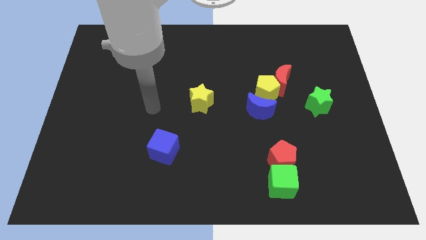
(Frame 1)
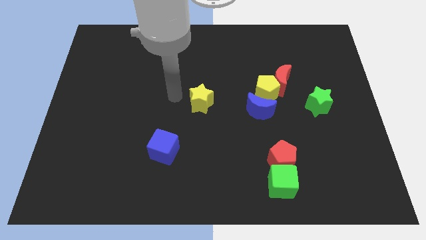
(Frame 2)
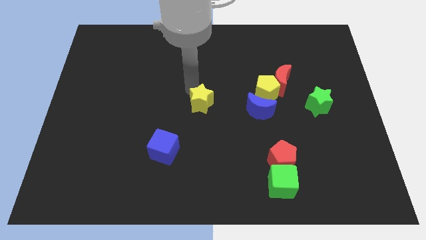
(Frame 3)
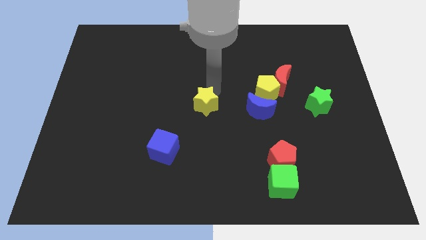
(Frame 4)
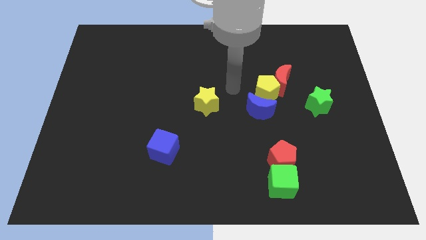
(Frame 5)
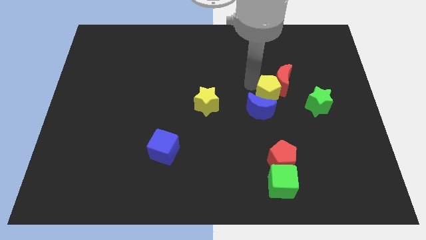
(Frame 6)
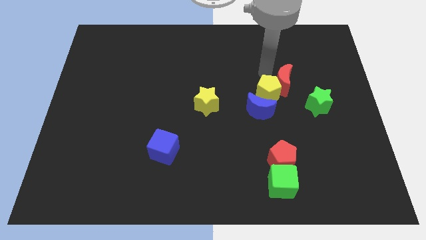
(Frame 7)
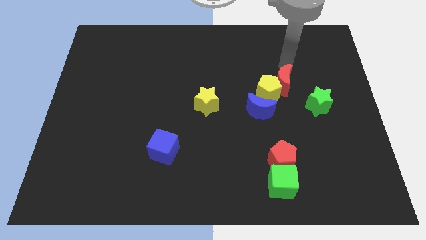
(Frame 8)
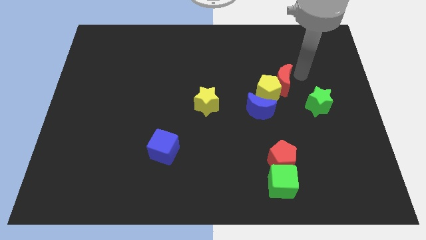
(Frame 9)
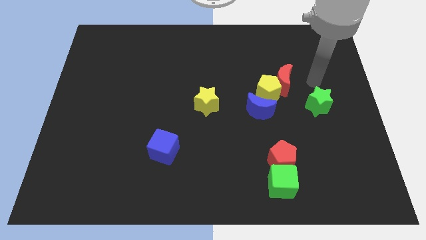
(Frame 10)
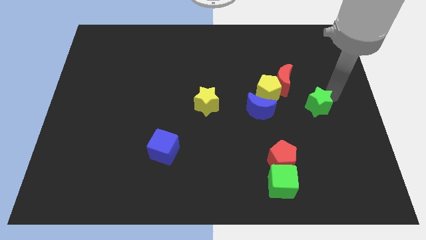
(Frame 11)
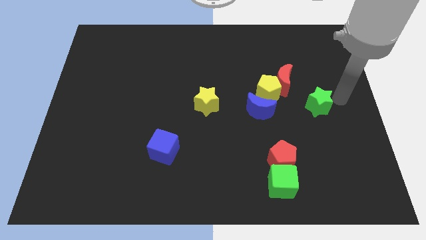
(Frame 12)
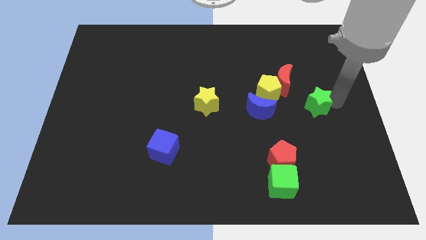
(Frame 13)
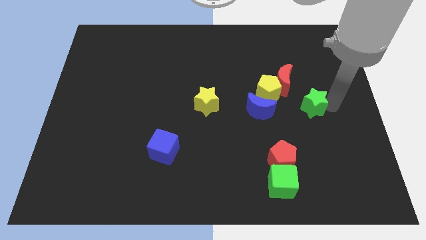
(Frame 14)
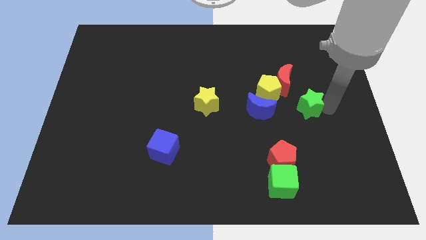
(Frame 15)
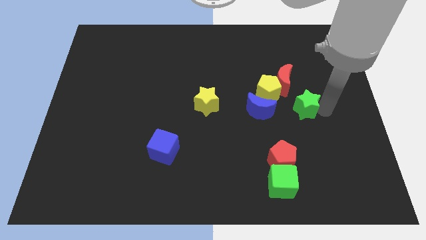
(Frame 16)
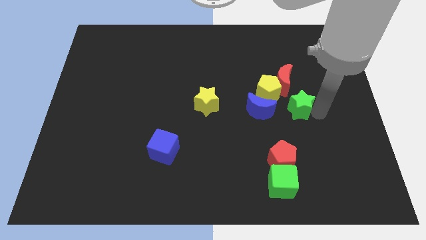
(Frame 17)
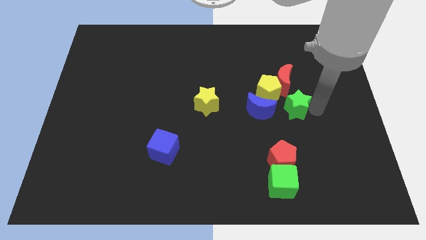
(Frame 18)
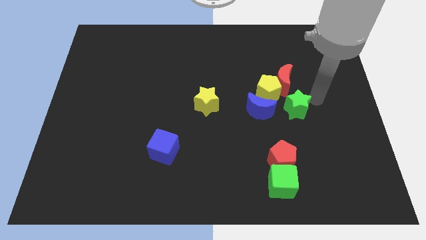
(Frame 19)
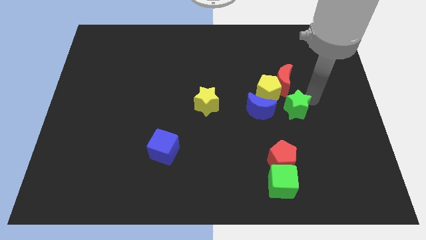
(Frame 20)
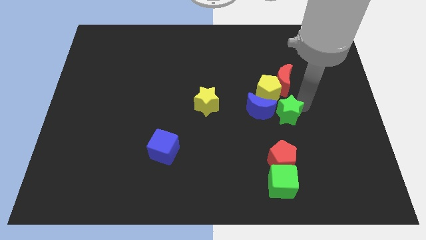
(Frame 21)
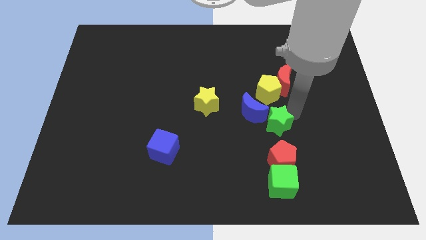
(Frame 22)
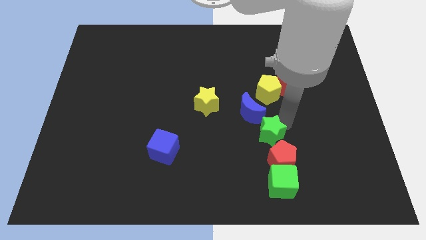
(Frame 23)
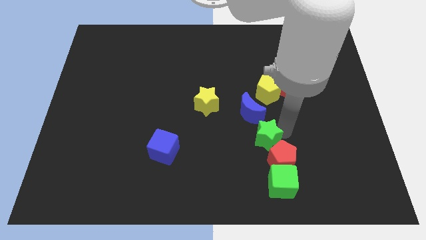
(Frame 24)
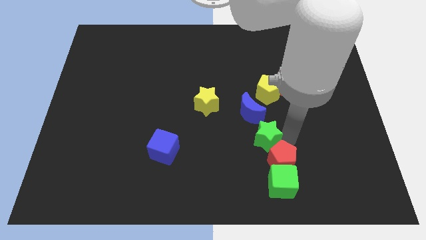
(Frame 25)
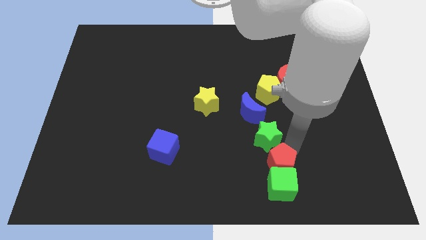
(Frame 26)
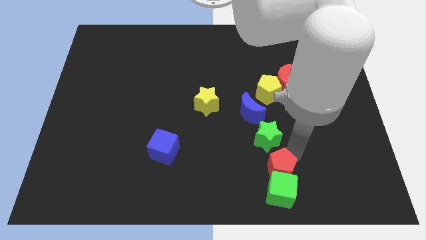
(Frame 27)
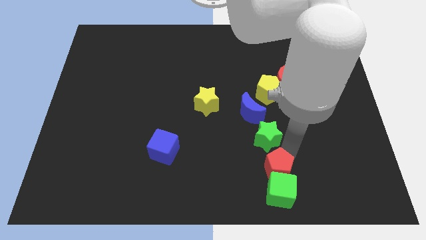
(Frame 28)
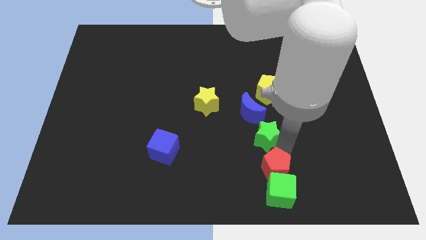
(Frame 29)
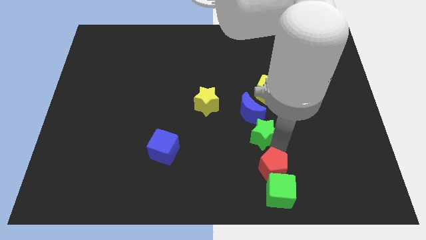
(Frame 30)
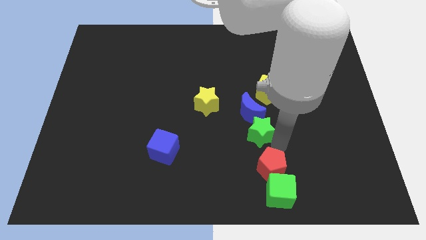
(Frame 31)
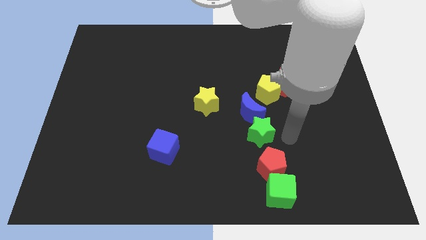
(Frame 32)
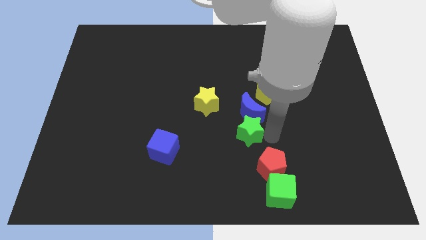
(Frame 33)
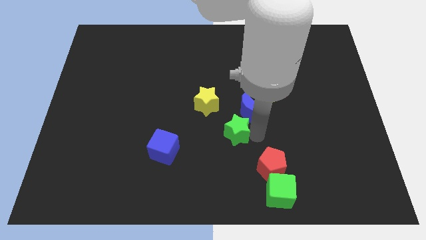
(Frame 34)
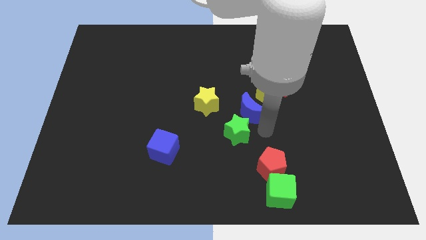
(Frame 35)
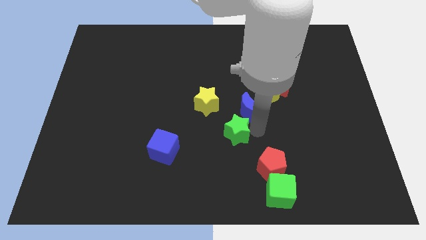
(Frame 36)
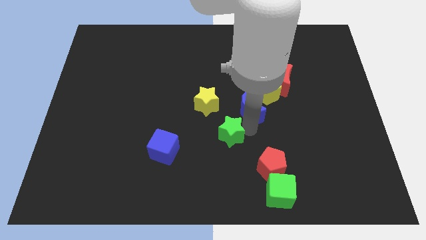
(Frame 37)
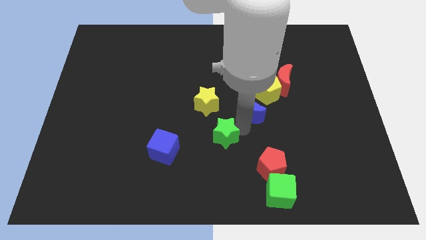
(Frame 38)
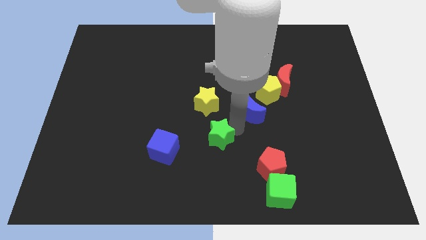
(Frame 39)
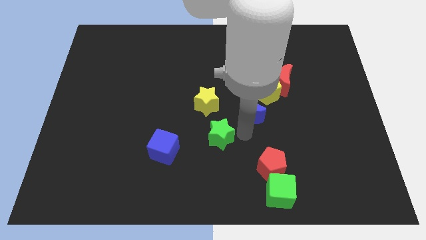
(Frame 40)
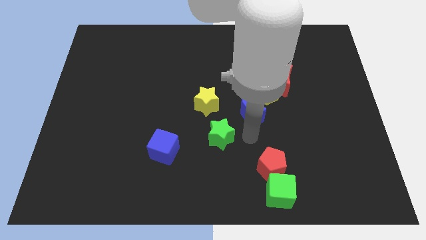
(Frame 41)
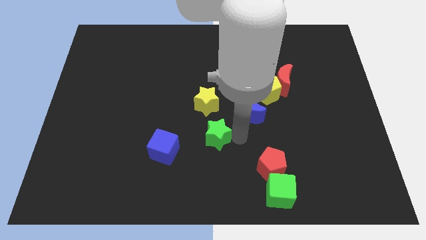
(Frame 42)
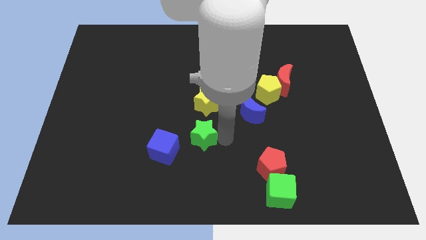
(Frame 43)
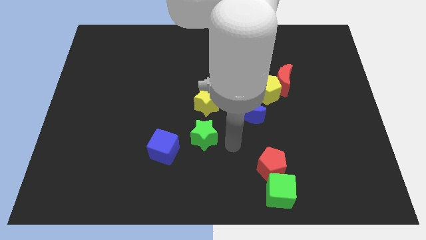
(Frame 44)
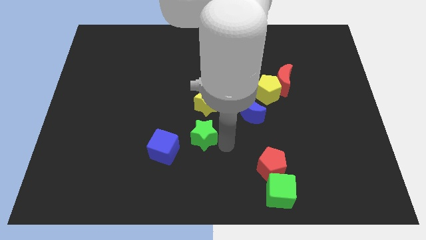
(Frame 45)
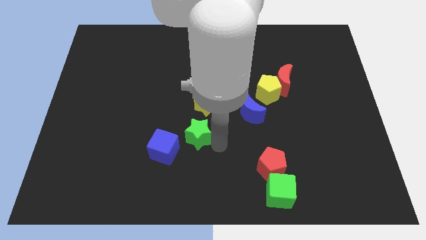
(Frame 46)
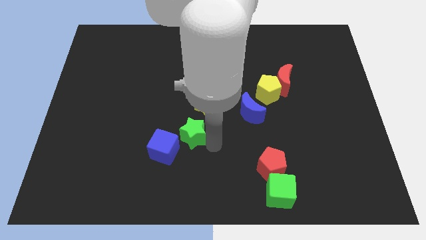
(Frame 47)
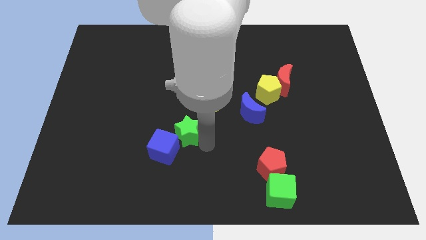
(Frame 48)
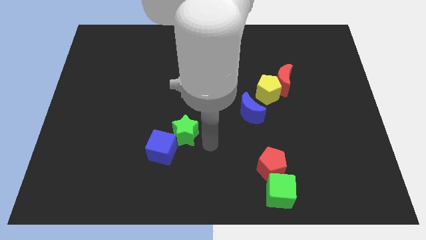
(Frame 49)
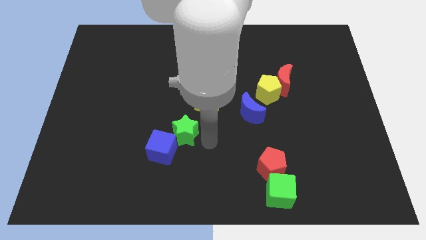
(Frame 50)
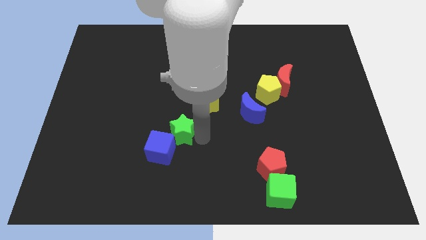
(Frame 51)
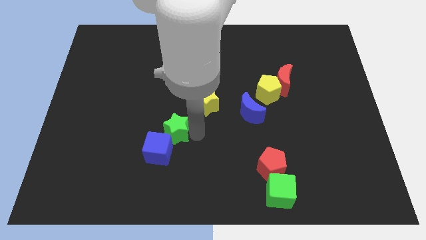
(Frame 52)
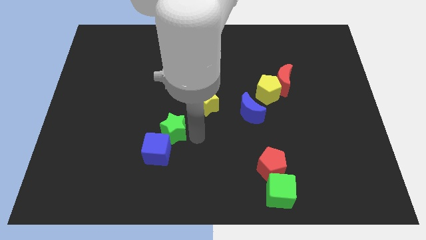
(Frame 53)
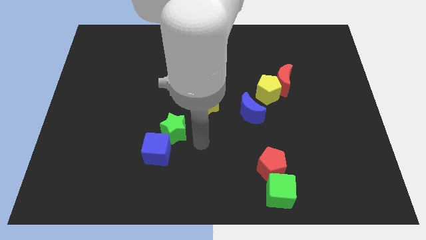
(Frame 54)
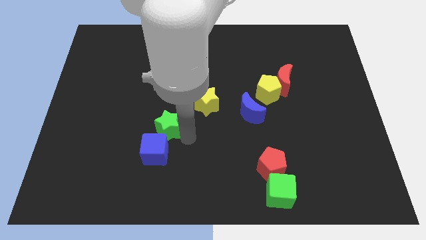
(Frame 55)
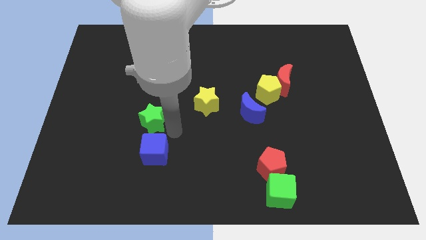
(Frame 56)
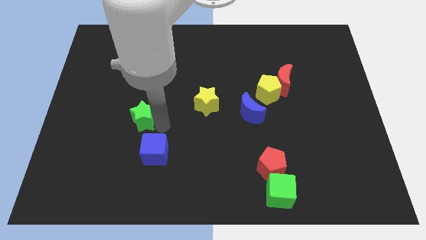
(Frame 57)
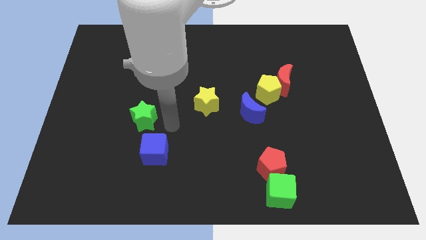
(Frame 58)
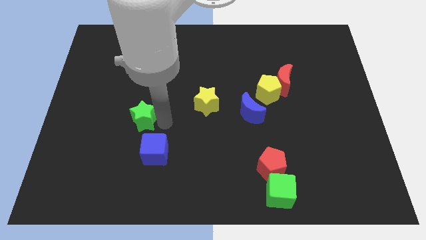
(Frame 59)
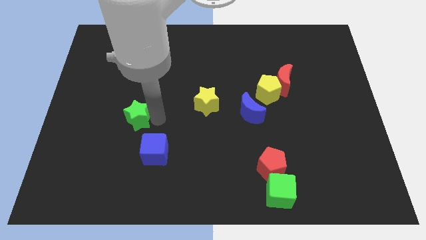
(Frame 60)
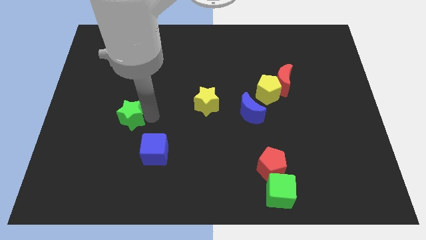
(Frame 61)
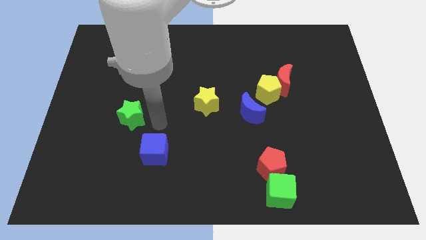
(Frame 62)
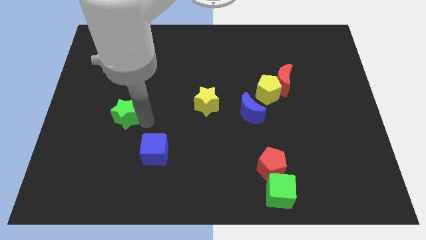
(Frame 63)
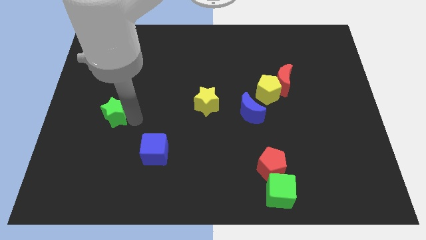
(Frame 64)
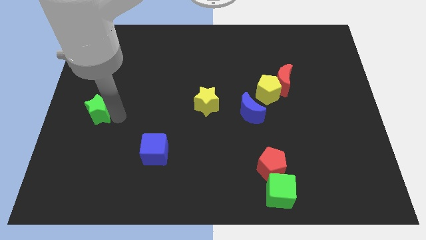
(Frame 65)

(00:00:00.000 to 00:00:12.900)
push the green star to the left side of the board
